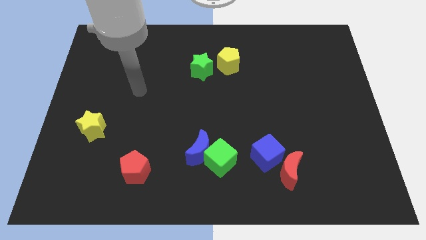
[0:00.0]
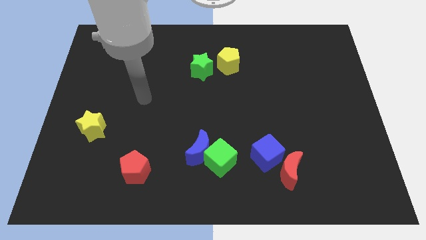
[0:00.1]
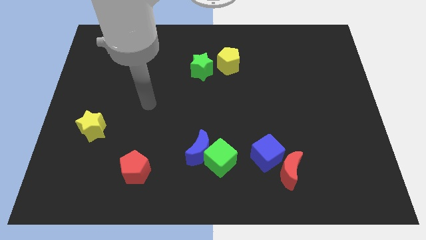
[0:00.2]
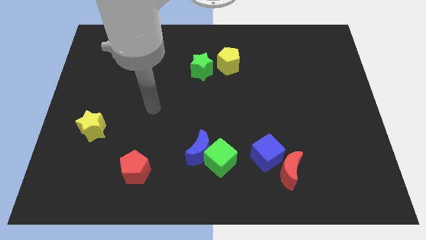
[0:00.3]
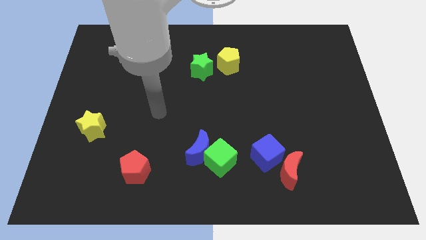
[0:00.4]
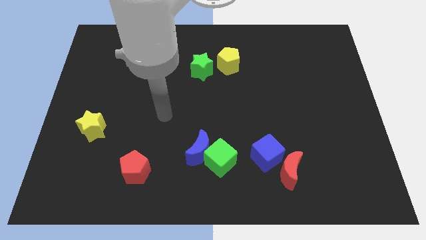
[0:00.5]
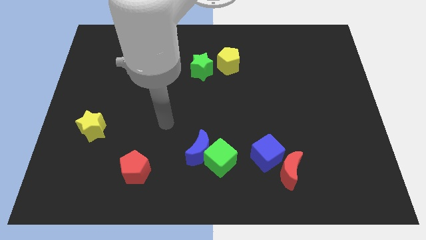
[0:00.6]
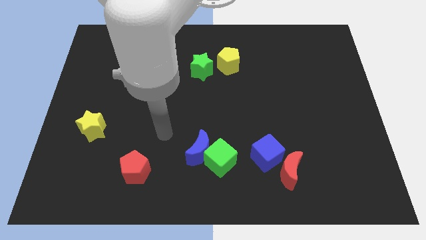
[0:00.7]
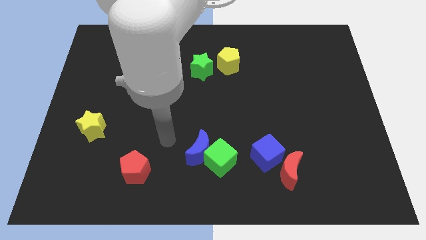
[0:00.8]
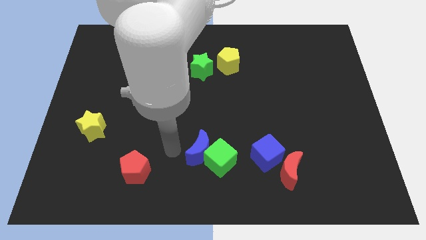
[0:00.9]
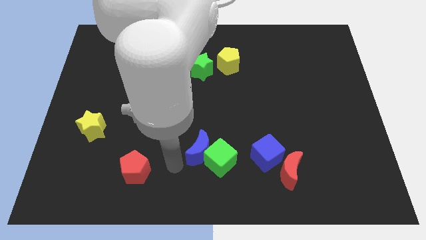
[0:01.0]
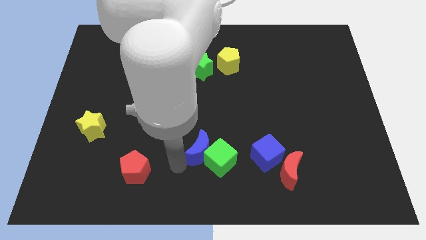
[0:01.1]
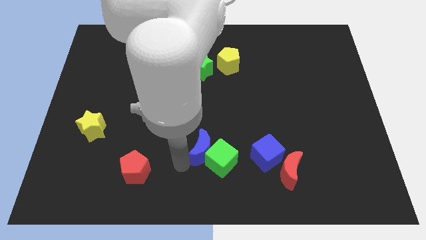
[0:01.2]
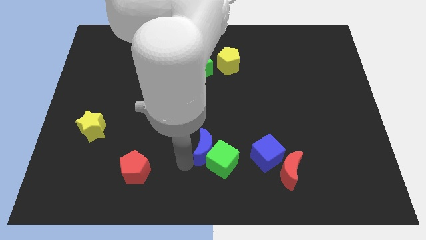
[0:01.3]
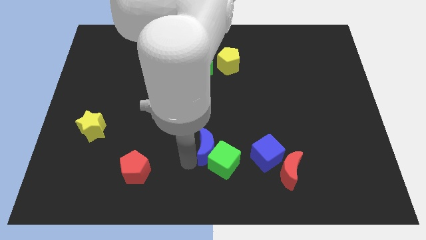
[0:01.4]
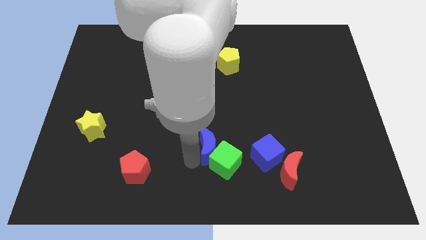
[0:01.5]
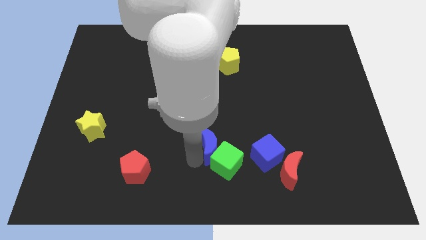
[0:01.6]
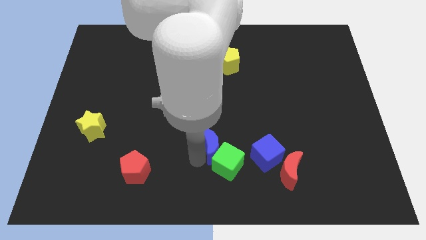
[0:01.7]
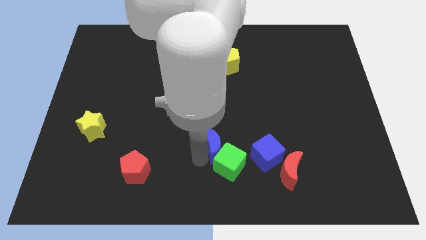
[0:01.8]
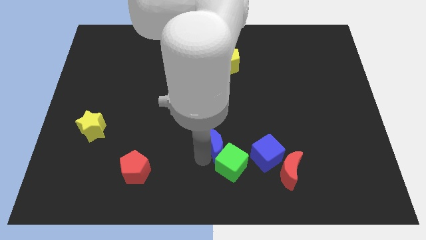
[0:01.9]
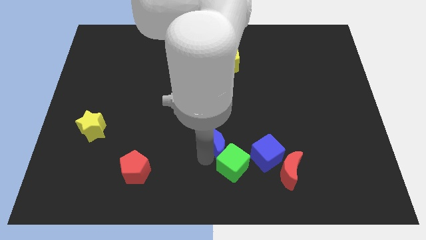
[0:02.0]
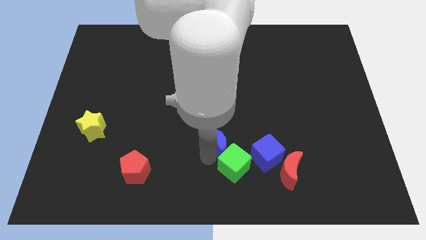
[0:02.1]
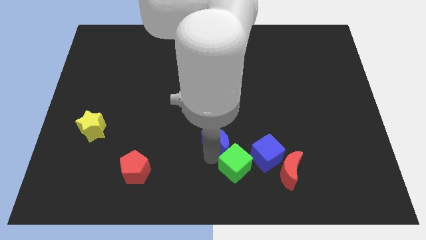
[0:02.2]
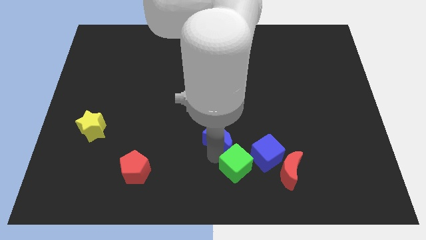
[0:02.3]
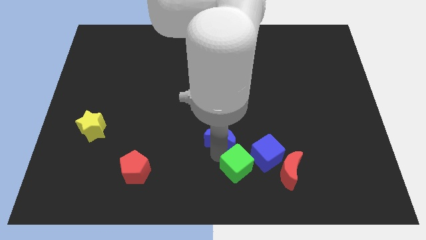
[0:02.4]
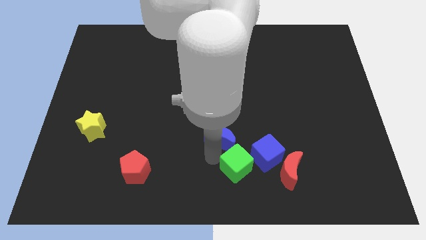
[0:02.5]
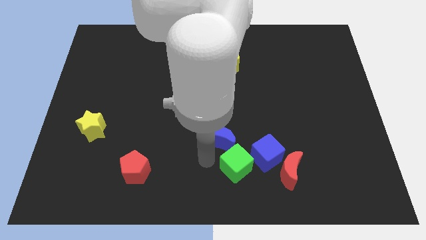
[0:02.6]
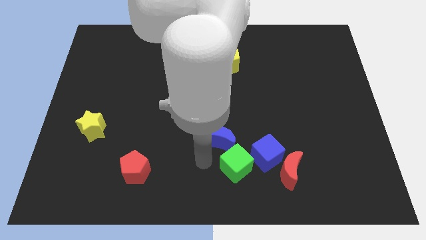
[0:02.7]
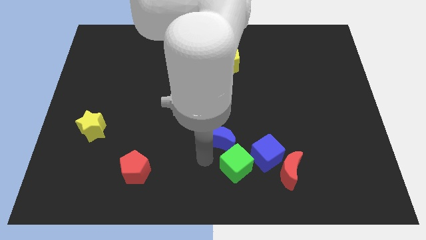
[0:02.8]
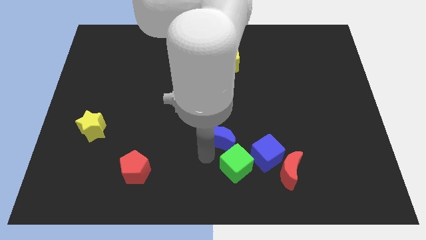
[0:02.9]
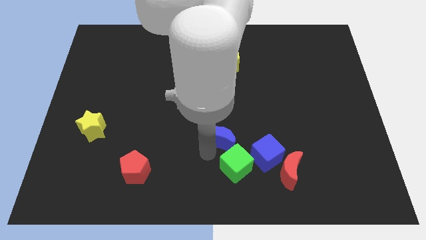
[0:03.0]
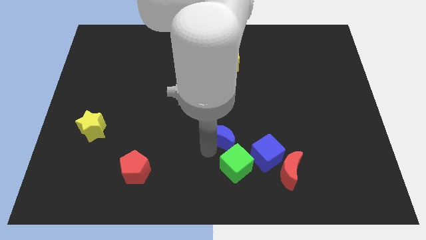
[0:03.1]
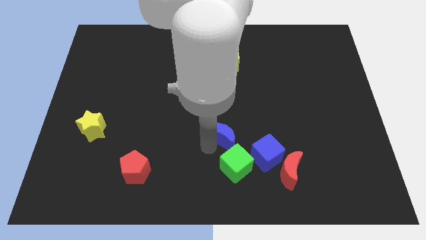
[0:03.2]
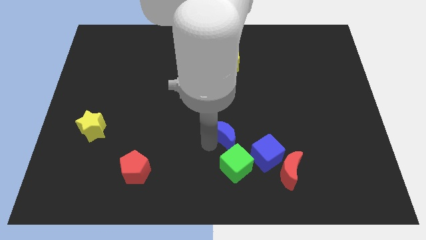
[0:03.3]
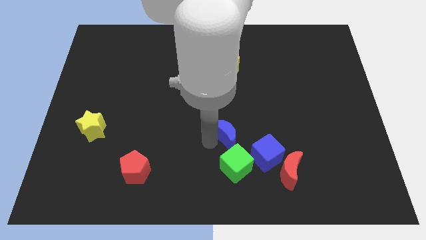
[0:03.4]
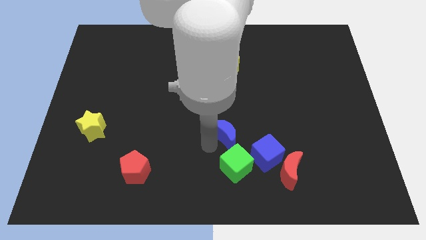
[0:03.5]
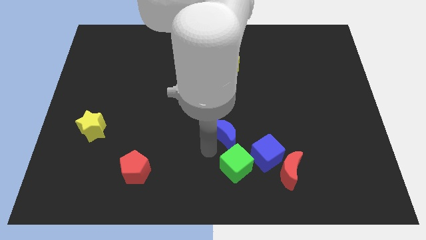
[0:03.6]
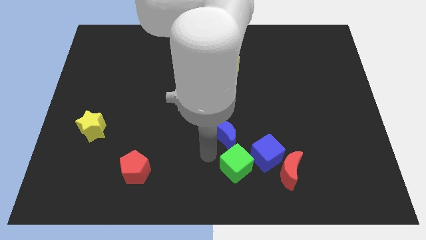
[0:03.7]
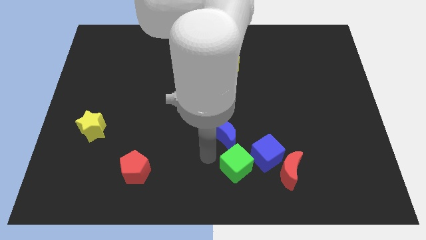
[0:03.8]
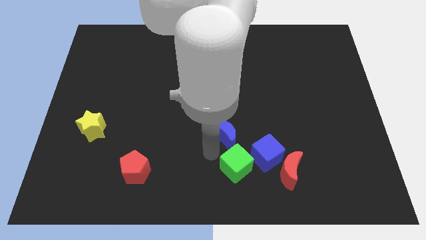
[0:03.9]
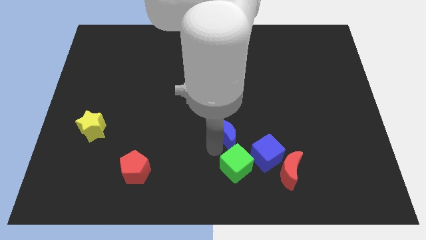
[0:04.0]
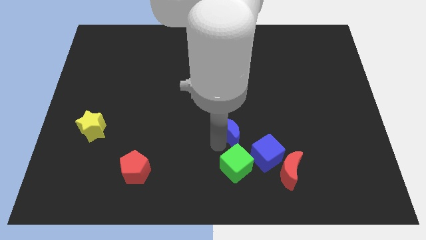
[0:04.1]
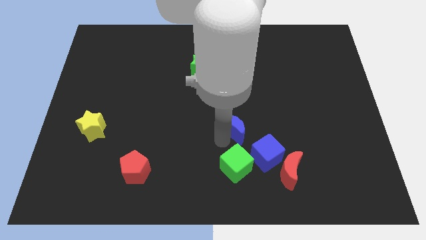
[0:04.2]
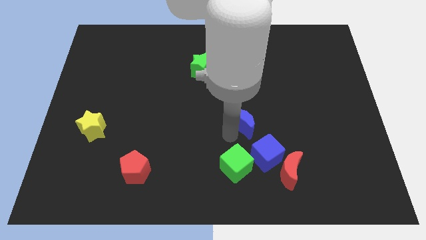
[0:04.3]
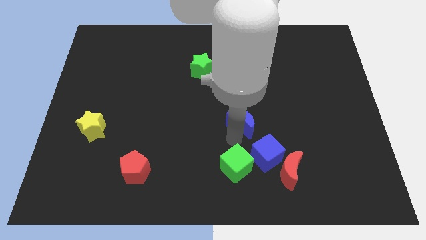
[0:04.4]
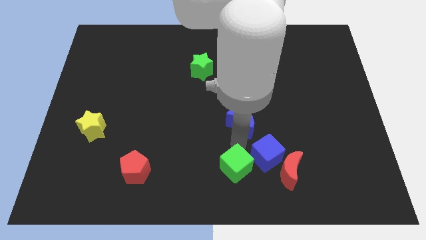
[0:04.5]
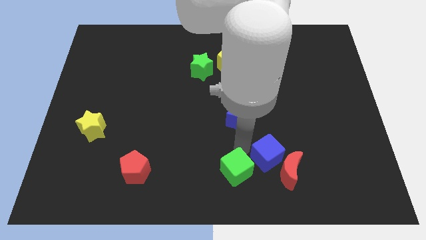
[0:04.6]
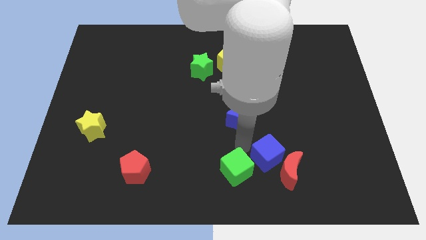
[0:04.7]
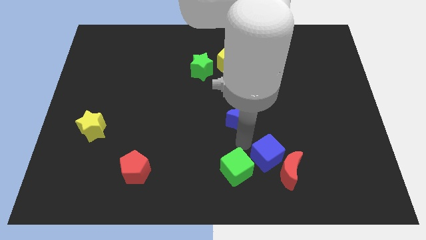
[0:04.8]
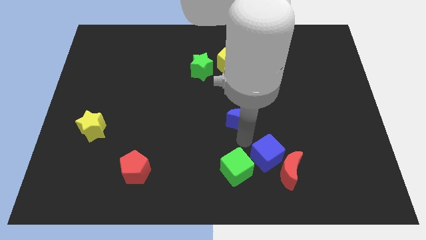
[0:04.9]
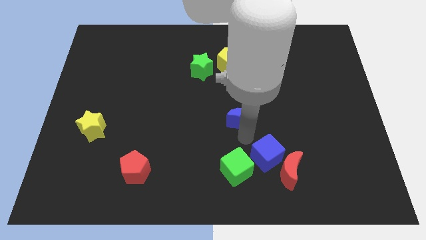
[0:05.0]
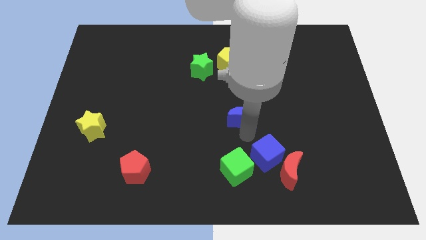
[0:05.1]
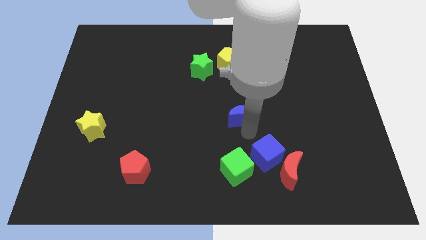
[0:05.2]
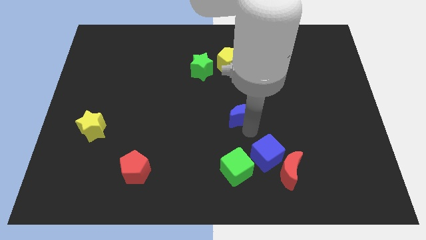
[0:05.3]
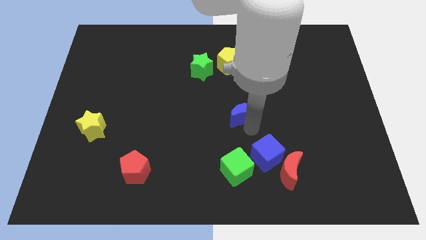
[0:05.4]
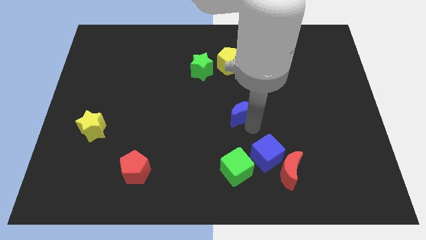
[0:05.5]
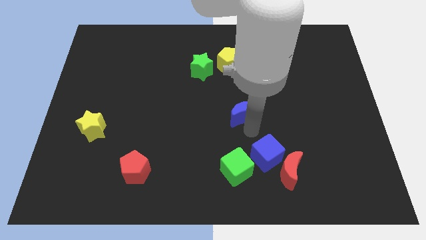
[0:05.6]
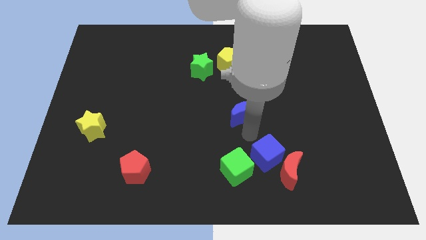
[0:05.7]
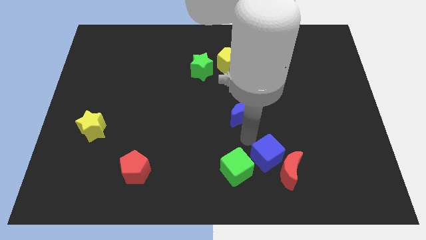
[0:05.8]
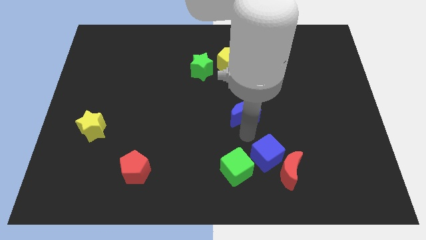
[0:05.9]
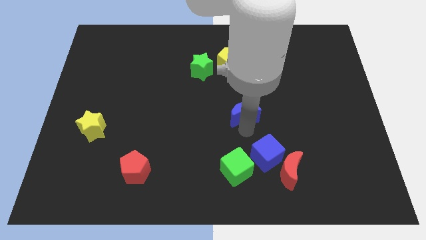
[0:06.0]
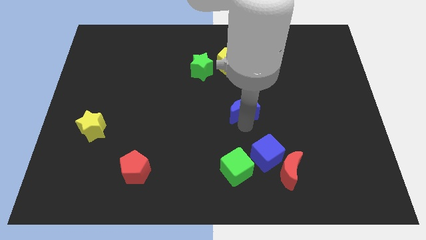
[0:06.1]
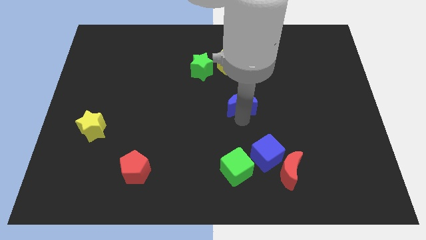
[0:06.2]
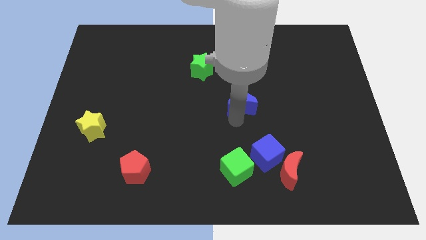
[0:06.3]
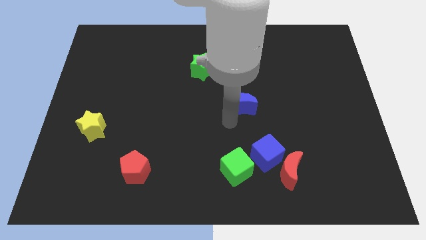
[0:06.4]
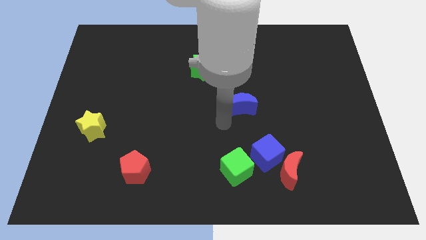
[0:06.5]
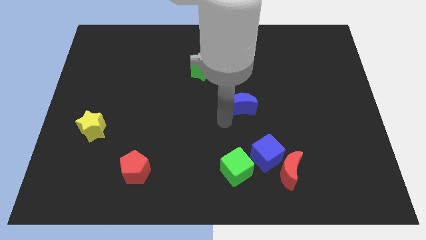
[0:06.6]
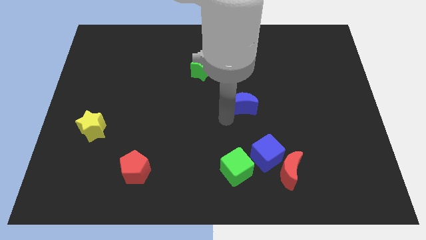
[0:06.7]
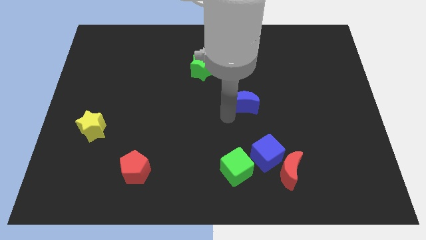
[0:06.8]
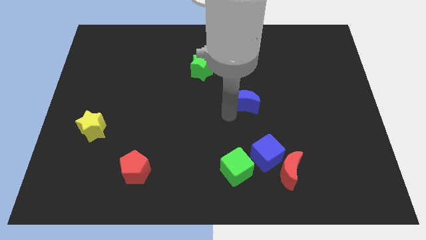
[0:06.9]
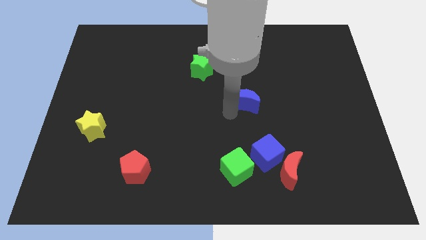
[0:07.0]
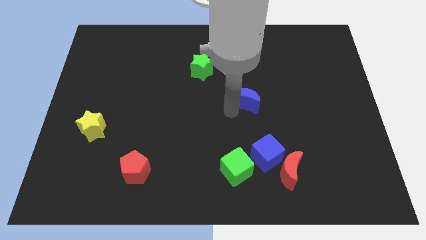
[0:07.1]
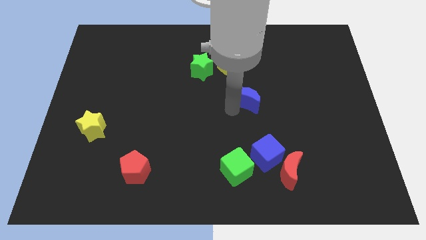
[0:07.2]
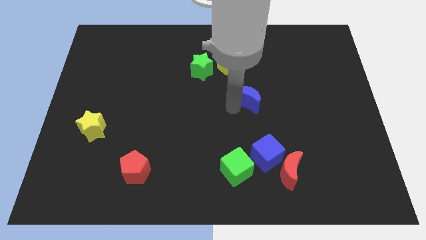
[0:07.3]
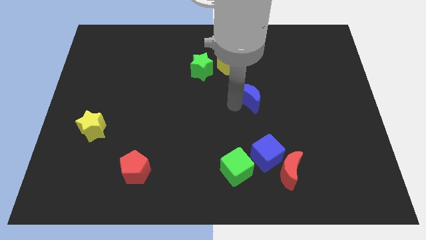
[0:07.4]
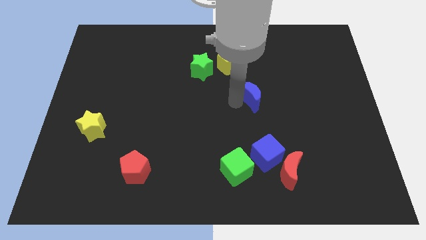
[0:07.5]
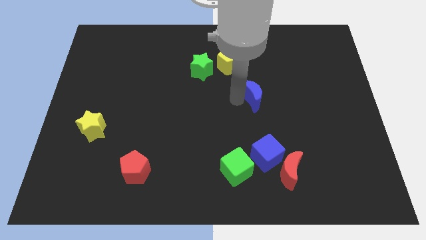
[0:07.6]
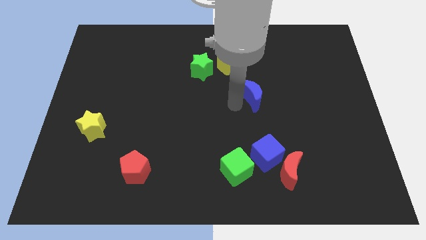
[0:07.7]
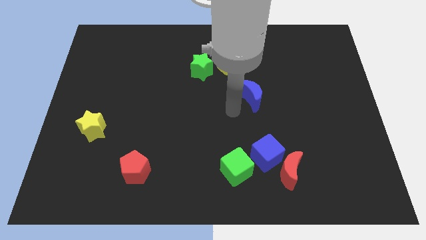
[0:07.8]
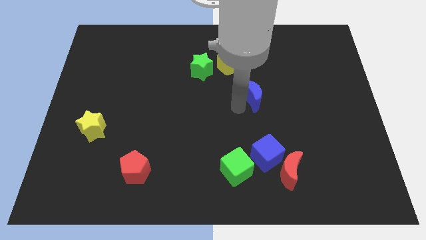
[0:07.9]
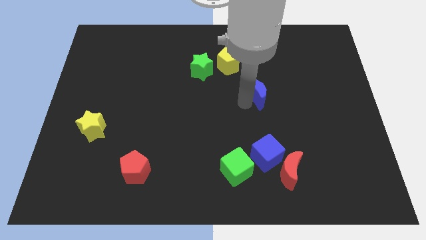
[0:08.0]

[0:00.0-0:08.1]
push the blue moon up and then right

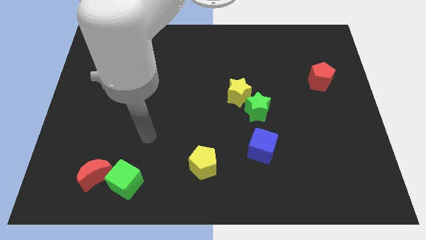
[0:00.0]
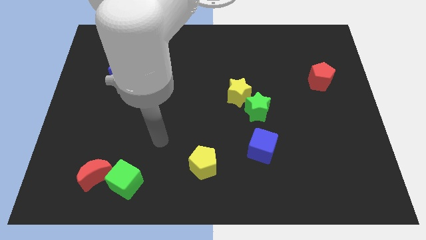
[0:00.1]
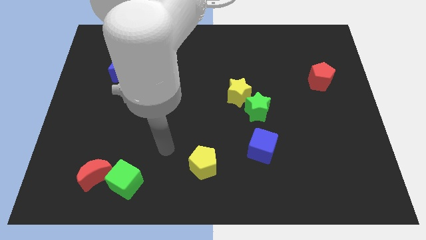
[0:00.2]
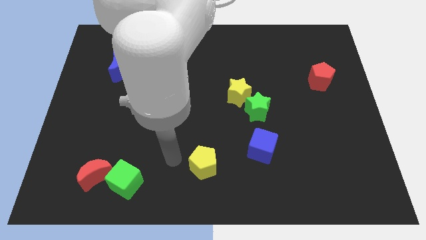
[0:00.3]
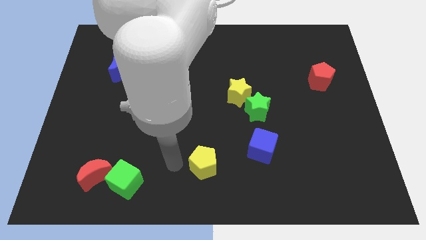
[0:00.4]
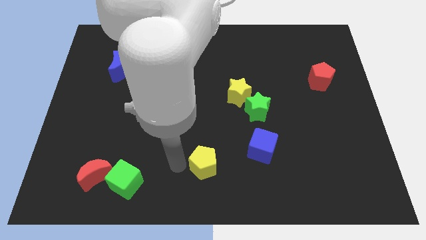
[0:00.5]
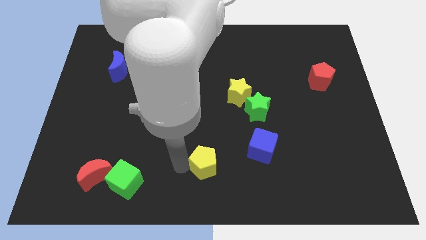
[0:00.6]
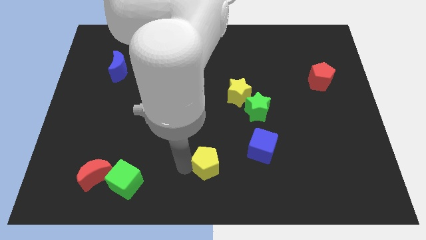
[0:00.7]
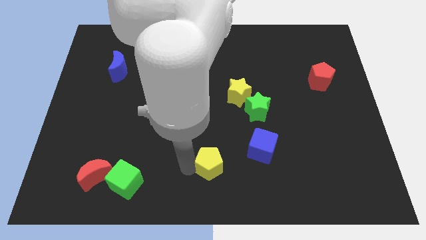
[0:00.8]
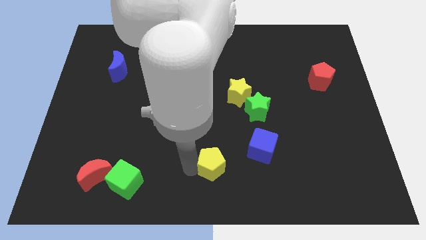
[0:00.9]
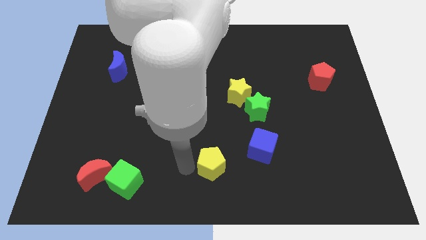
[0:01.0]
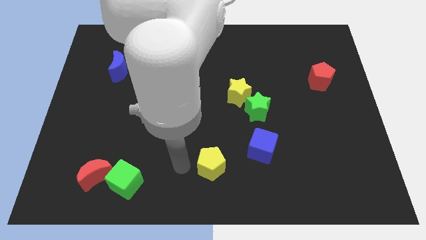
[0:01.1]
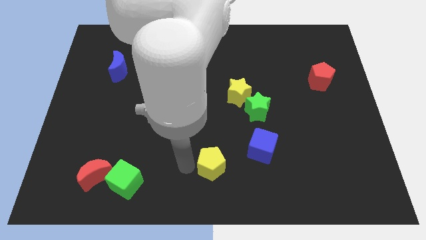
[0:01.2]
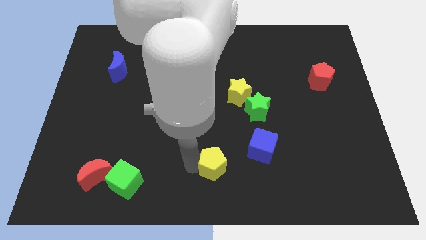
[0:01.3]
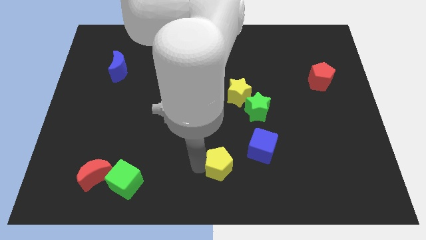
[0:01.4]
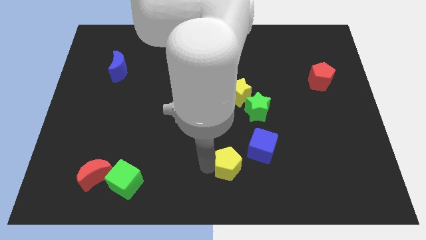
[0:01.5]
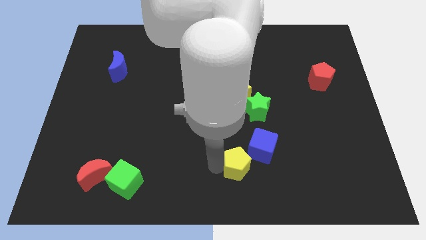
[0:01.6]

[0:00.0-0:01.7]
push the yellow pentagon right slightly
